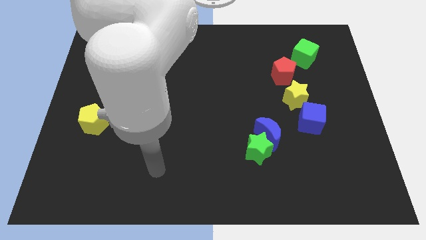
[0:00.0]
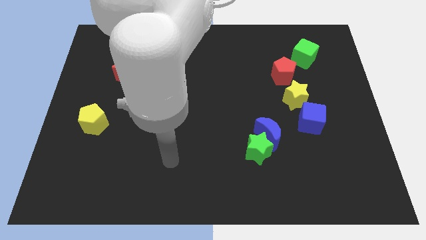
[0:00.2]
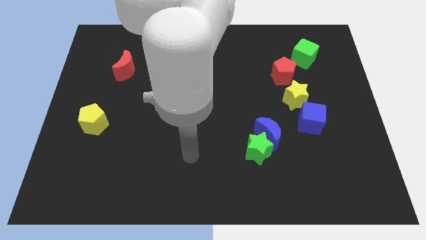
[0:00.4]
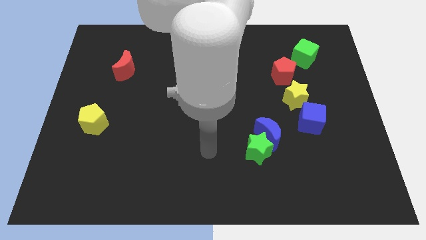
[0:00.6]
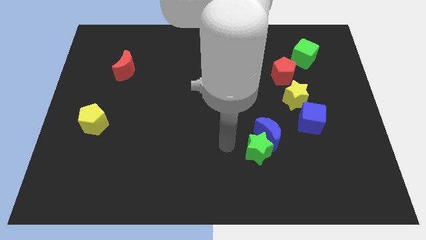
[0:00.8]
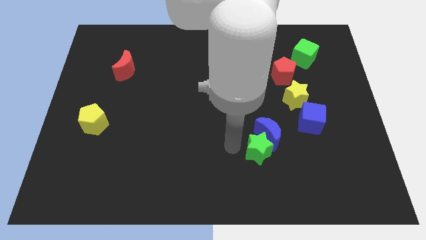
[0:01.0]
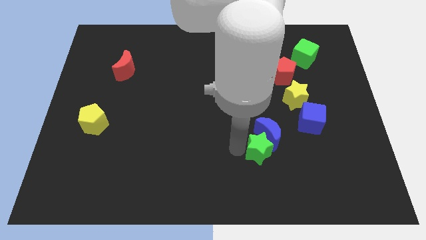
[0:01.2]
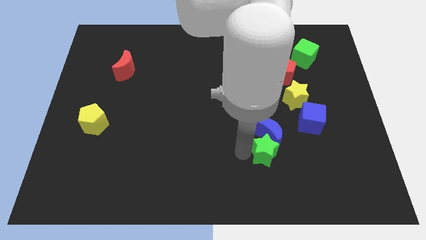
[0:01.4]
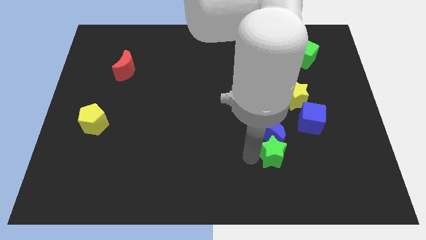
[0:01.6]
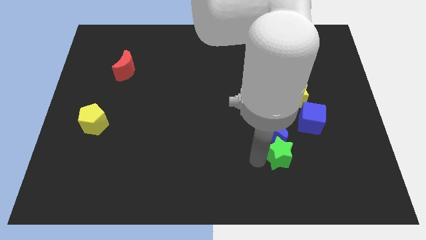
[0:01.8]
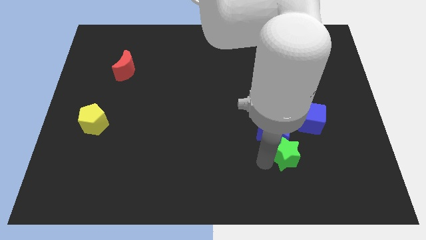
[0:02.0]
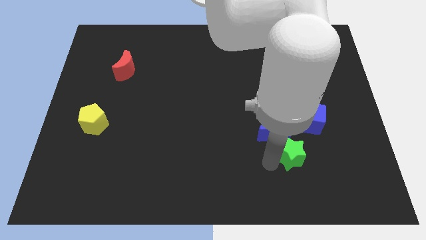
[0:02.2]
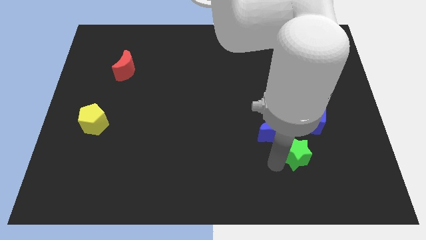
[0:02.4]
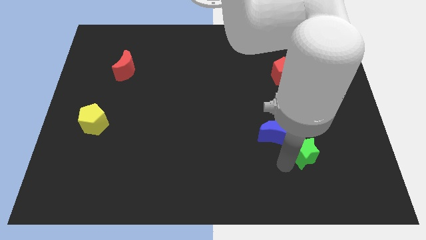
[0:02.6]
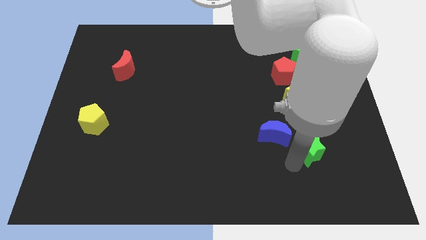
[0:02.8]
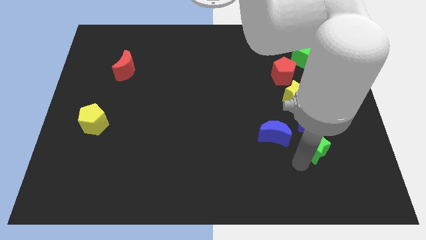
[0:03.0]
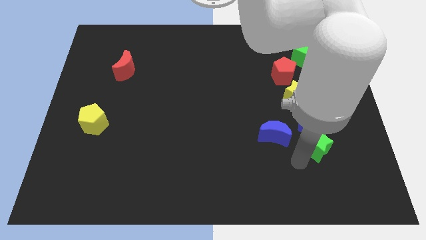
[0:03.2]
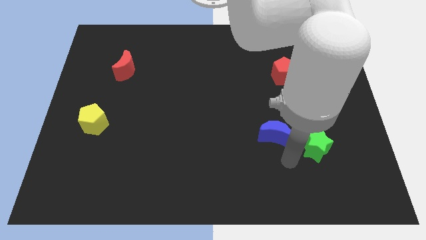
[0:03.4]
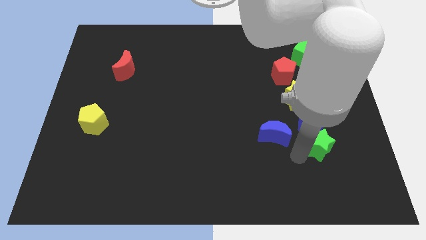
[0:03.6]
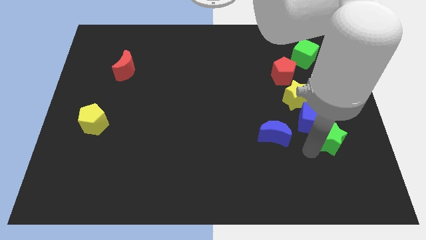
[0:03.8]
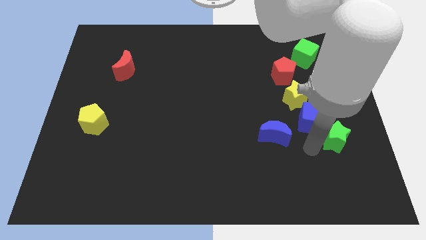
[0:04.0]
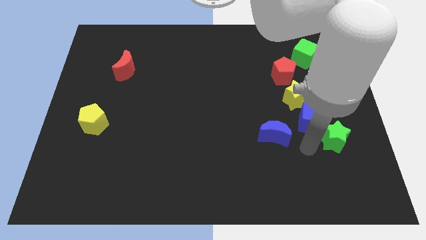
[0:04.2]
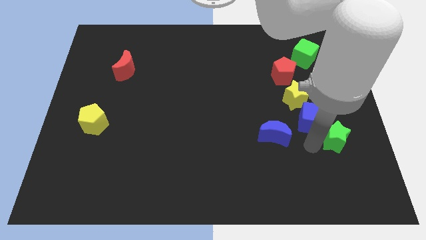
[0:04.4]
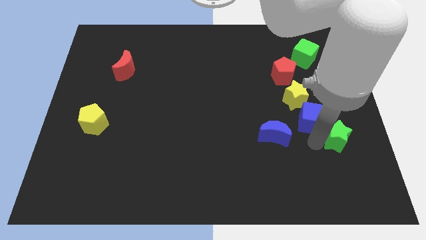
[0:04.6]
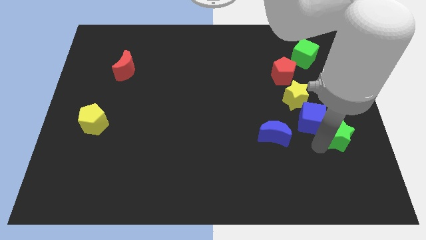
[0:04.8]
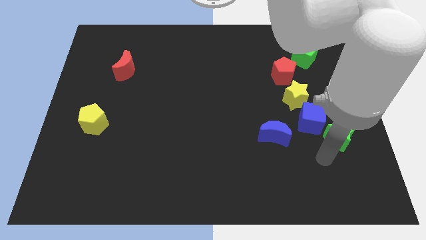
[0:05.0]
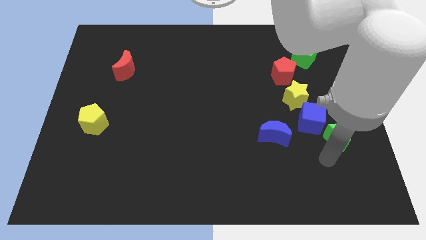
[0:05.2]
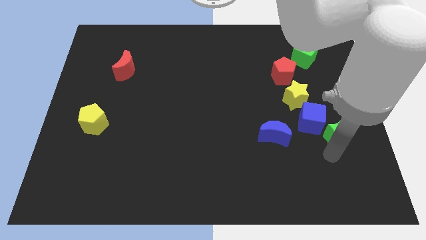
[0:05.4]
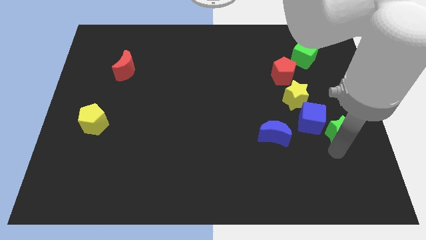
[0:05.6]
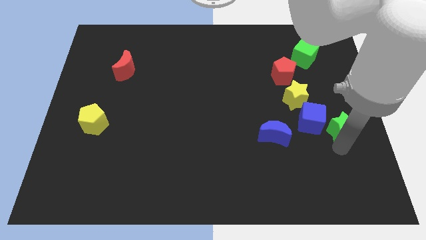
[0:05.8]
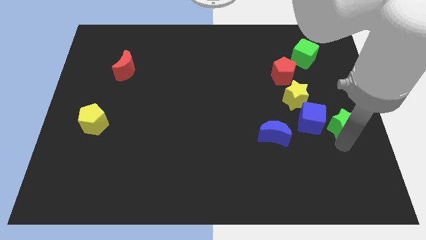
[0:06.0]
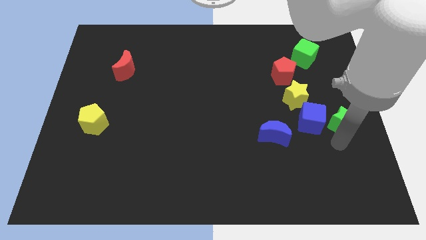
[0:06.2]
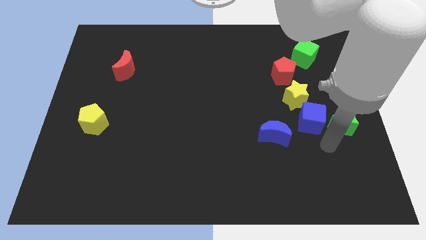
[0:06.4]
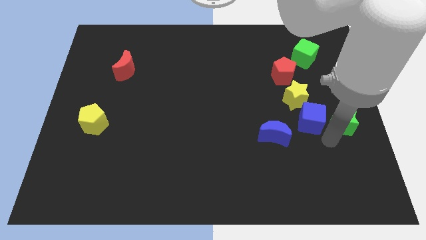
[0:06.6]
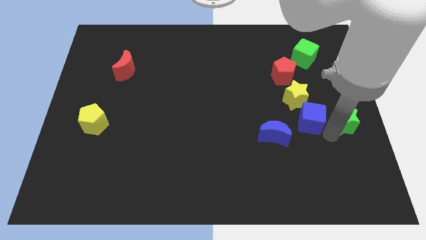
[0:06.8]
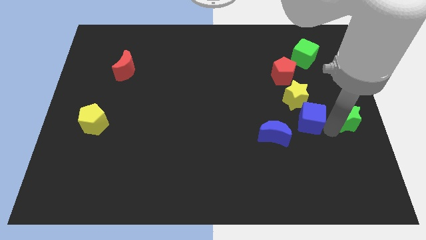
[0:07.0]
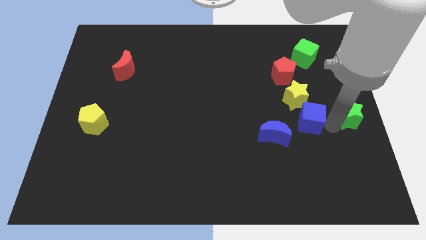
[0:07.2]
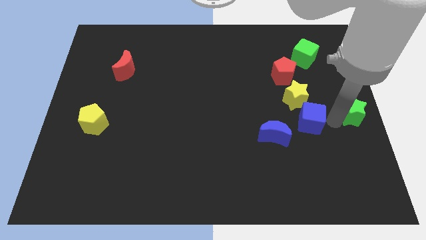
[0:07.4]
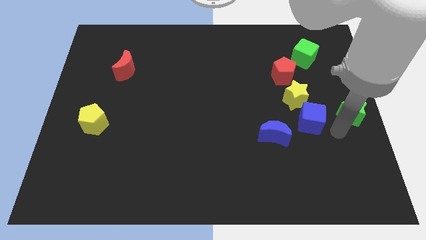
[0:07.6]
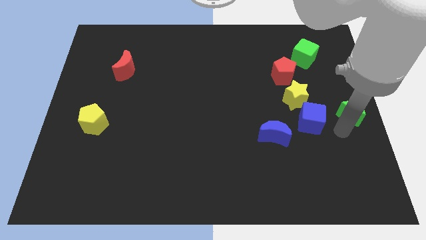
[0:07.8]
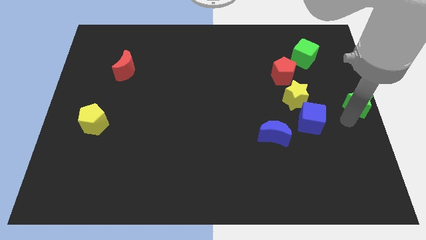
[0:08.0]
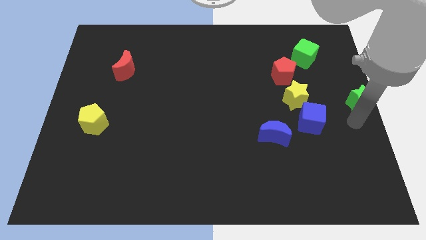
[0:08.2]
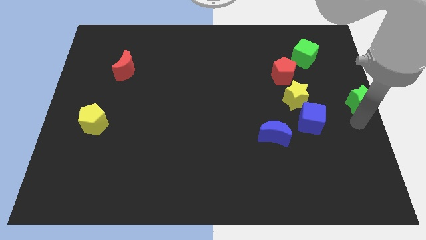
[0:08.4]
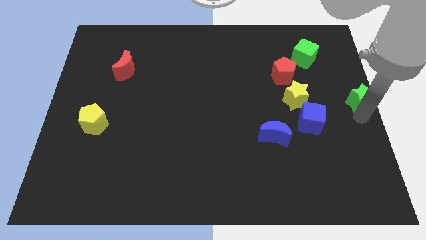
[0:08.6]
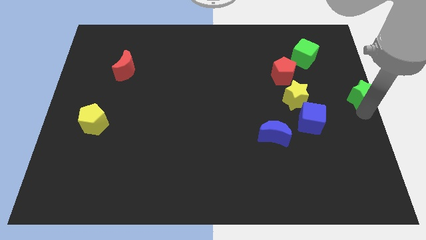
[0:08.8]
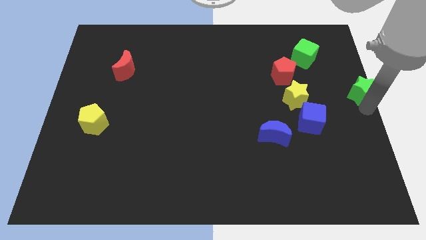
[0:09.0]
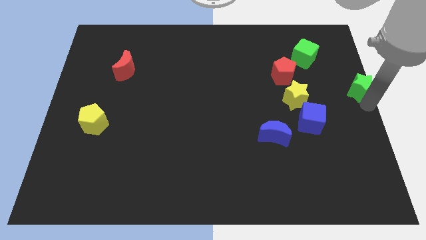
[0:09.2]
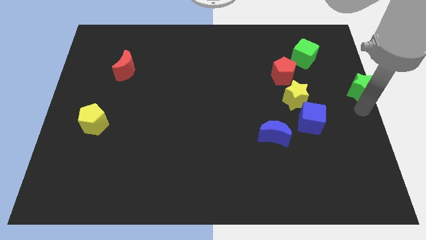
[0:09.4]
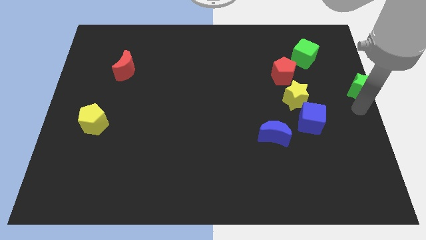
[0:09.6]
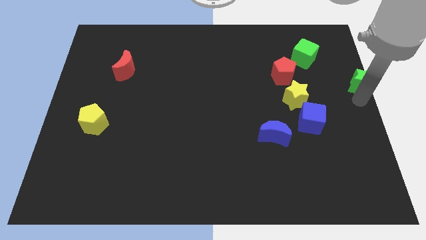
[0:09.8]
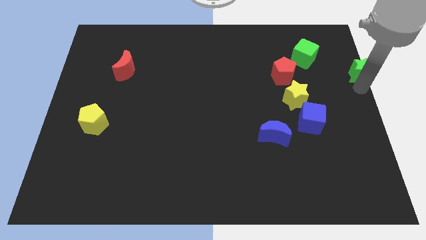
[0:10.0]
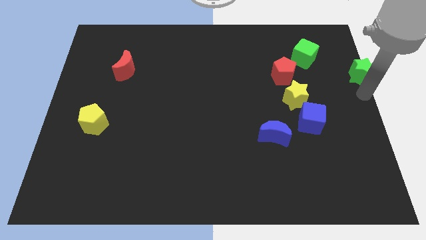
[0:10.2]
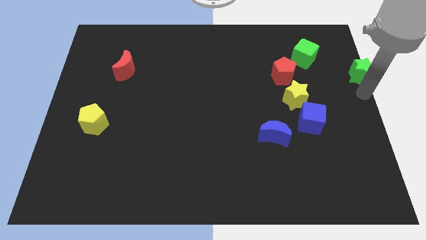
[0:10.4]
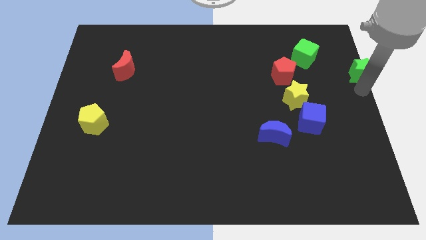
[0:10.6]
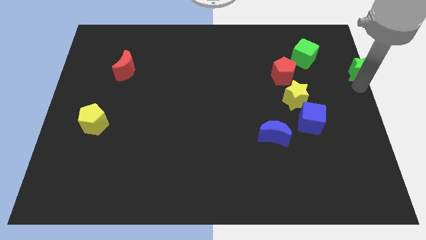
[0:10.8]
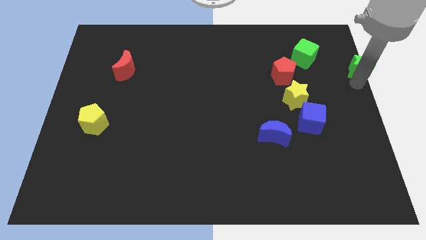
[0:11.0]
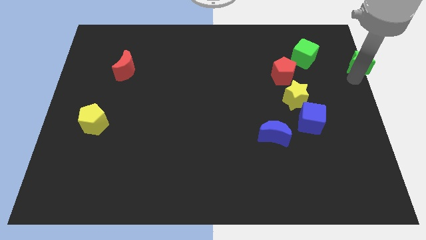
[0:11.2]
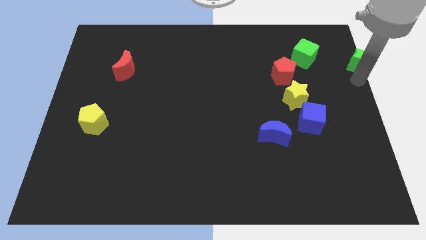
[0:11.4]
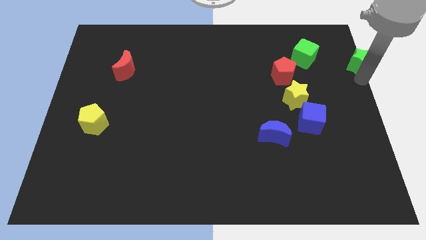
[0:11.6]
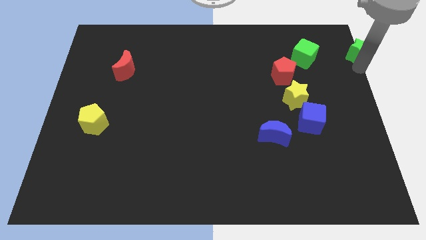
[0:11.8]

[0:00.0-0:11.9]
push the green star to the top right of the board
